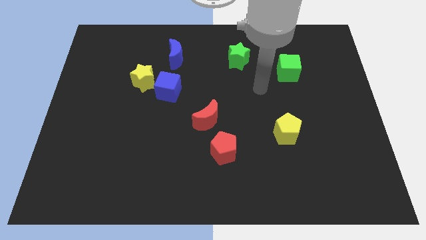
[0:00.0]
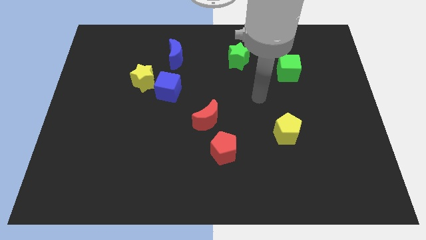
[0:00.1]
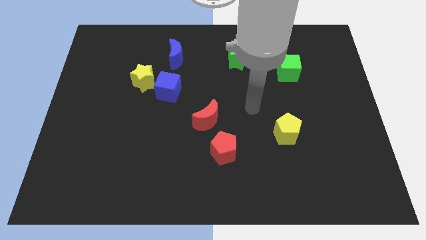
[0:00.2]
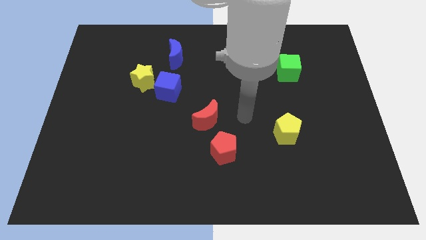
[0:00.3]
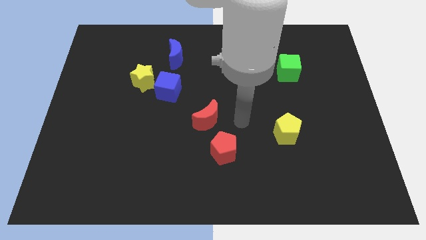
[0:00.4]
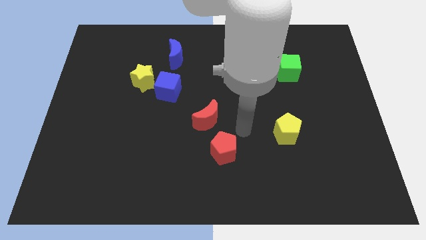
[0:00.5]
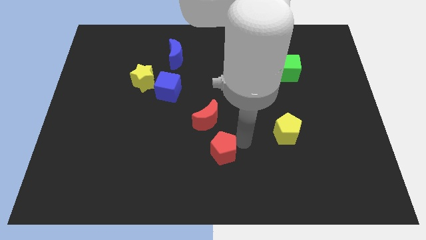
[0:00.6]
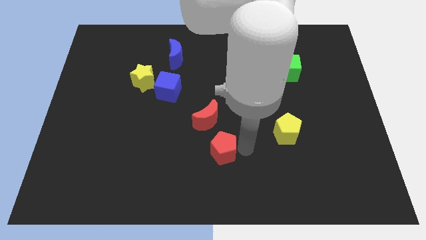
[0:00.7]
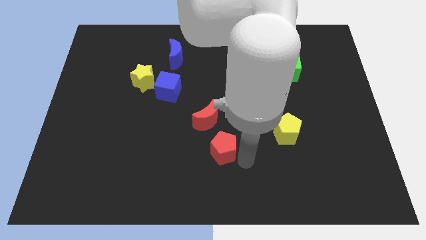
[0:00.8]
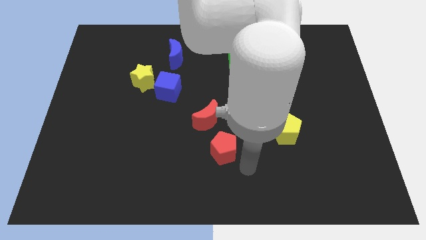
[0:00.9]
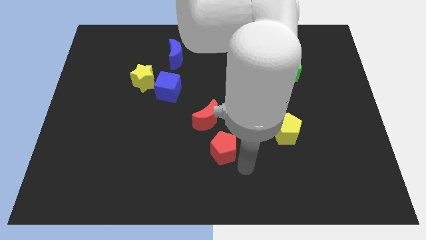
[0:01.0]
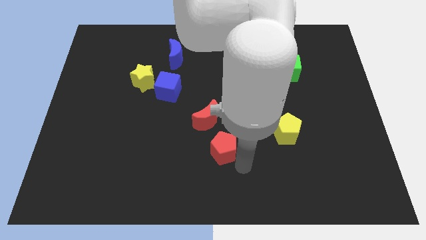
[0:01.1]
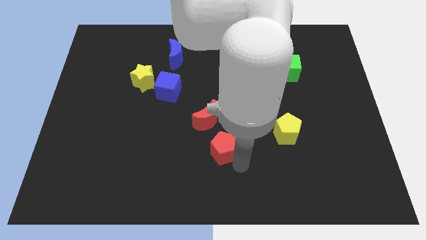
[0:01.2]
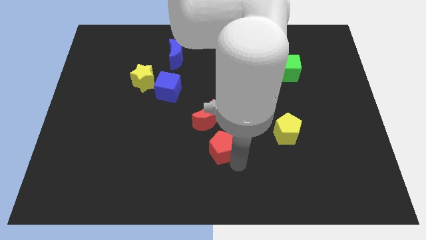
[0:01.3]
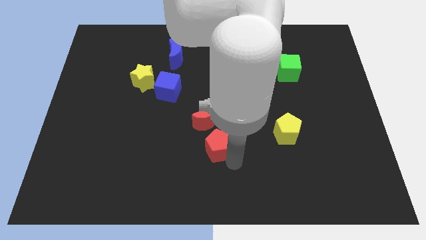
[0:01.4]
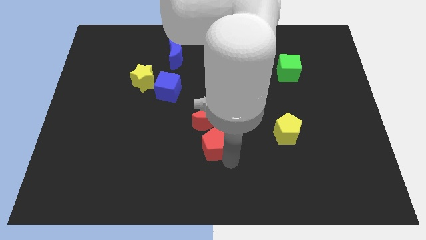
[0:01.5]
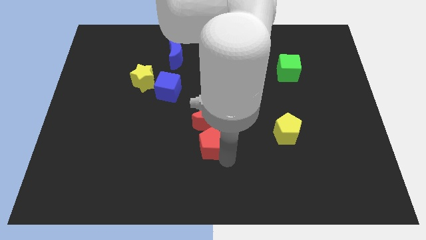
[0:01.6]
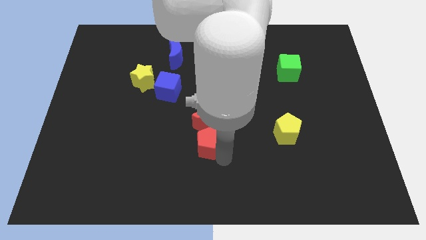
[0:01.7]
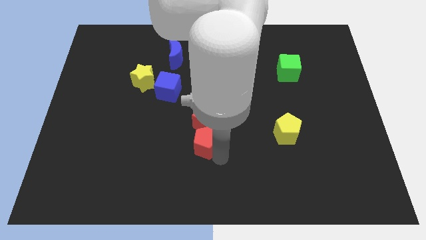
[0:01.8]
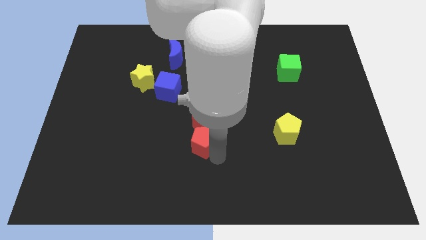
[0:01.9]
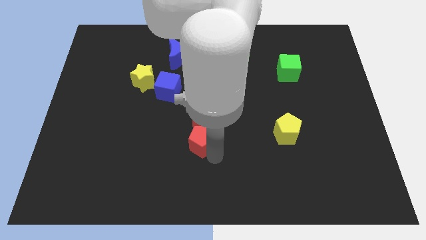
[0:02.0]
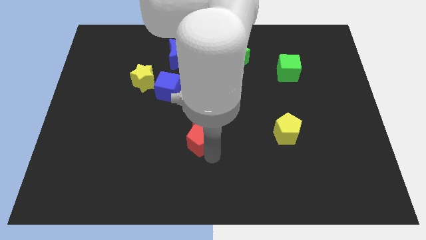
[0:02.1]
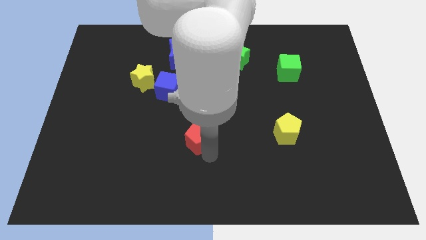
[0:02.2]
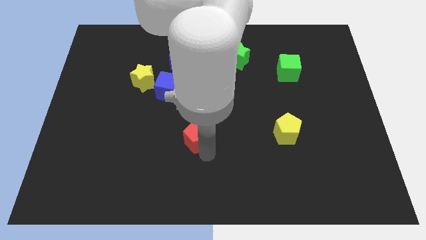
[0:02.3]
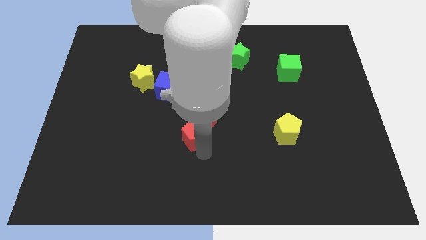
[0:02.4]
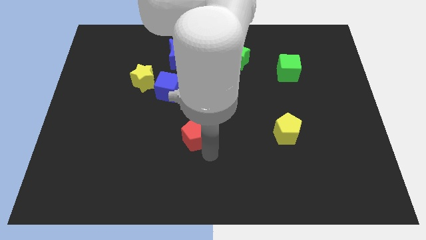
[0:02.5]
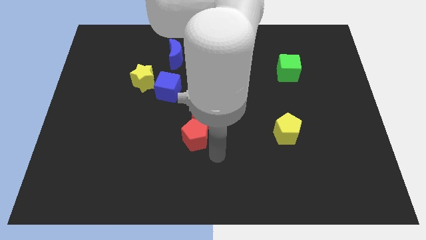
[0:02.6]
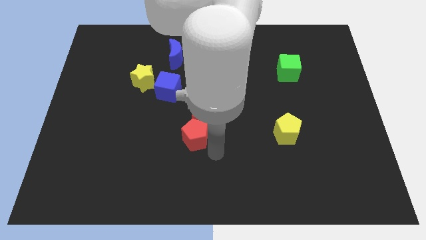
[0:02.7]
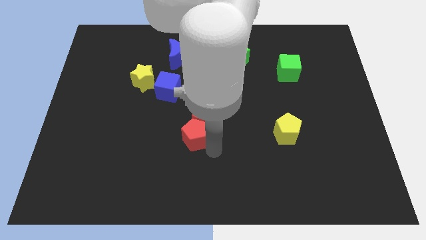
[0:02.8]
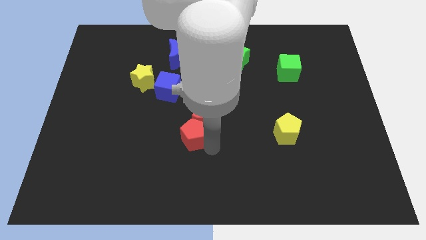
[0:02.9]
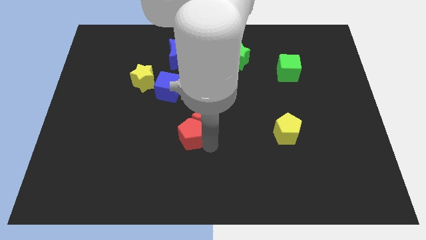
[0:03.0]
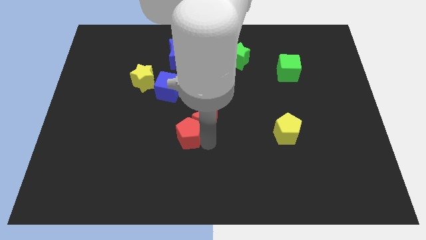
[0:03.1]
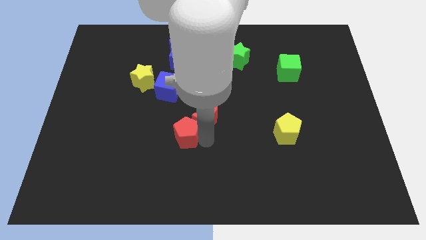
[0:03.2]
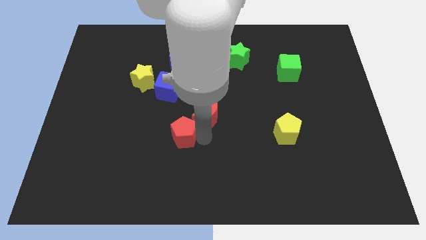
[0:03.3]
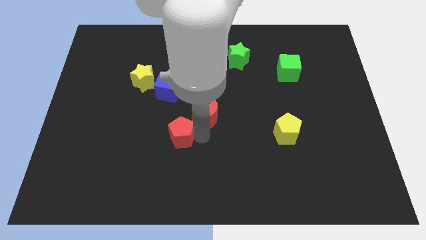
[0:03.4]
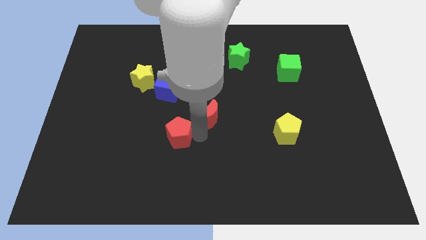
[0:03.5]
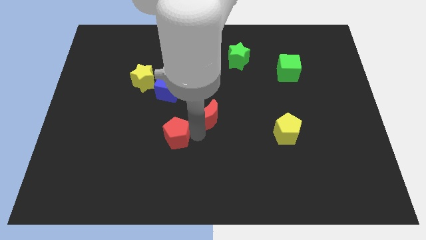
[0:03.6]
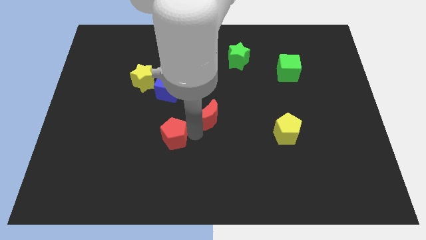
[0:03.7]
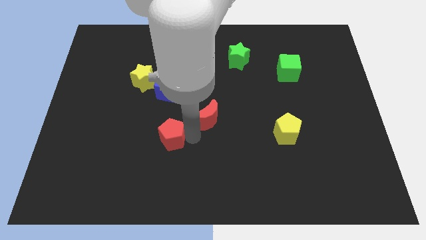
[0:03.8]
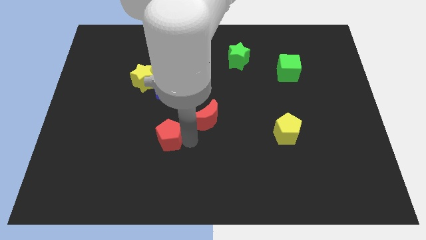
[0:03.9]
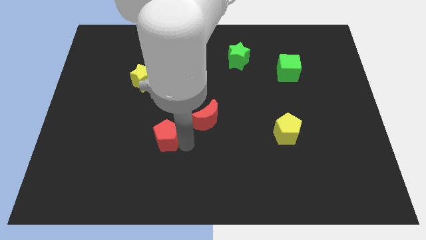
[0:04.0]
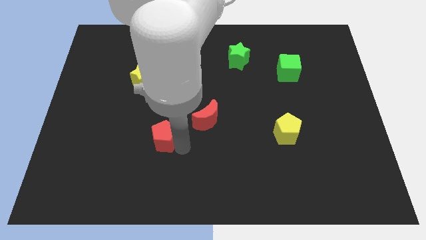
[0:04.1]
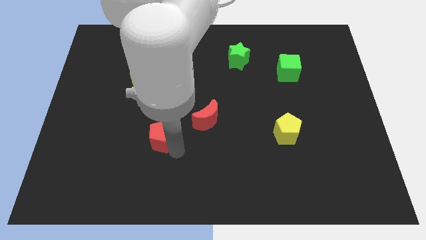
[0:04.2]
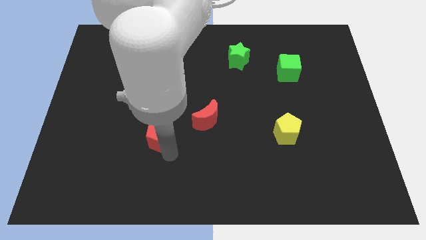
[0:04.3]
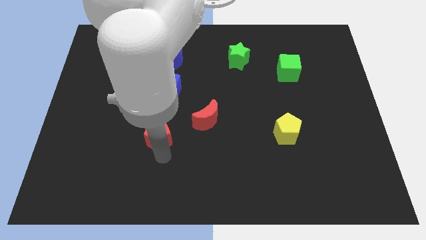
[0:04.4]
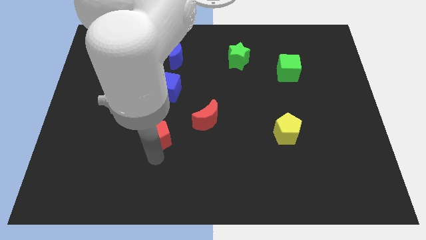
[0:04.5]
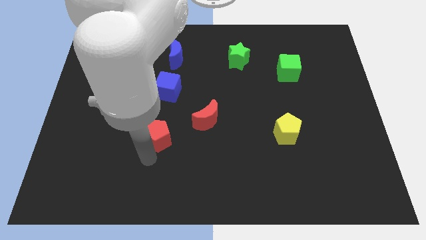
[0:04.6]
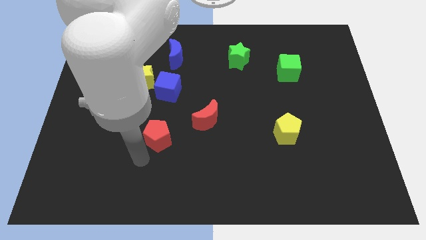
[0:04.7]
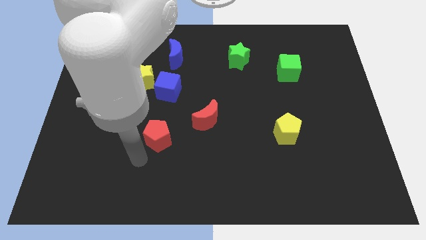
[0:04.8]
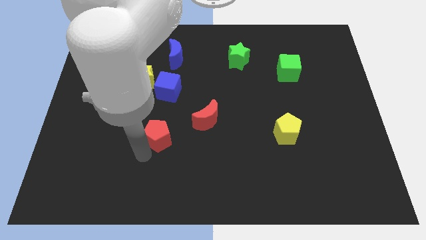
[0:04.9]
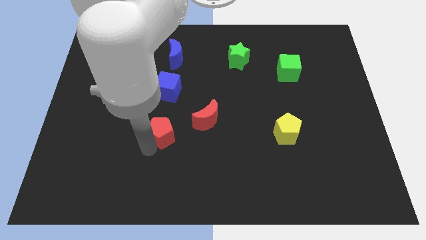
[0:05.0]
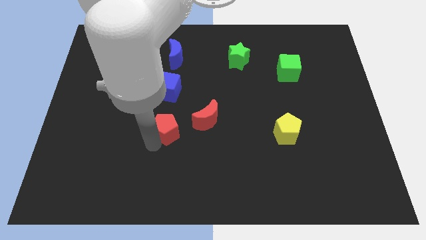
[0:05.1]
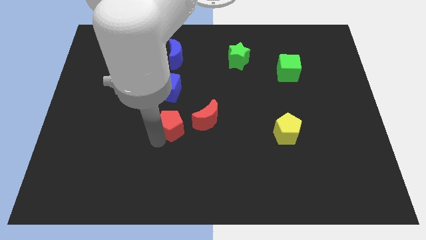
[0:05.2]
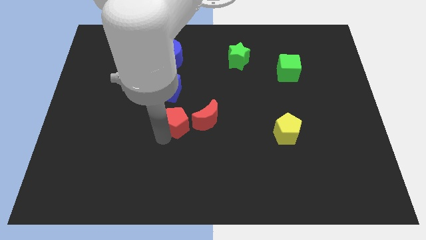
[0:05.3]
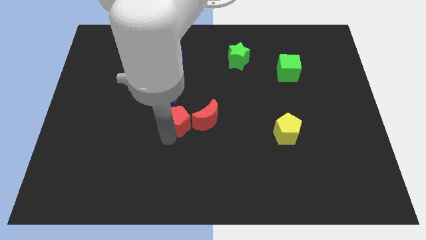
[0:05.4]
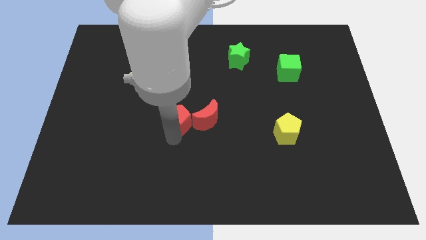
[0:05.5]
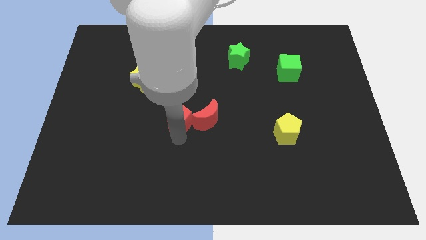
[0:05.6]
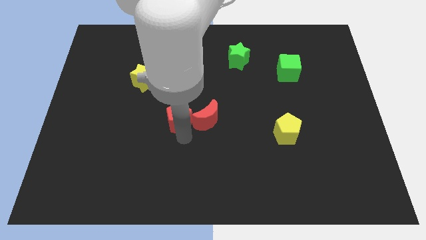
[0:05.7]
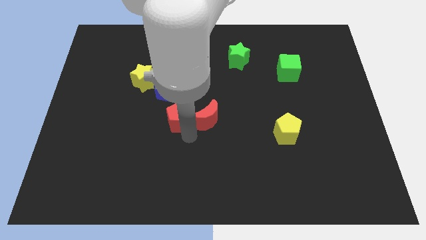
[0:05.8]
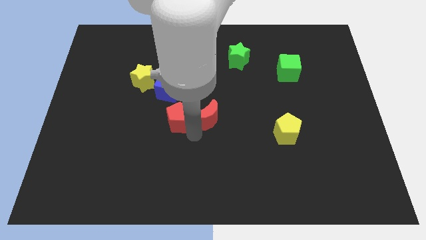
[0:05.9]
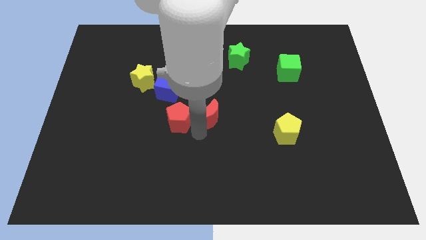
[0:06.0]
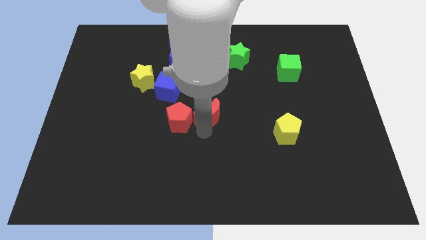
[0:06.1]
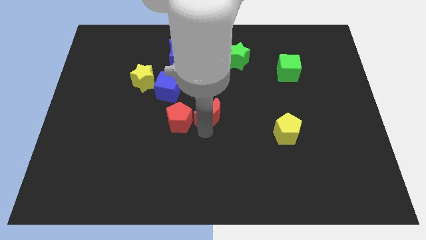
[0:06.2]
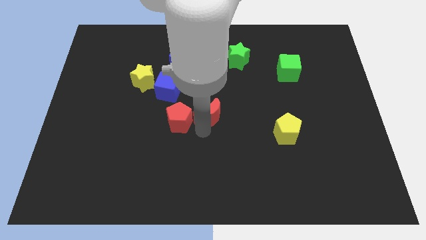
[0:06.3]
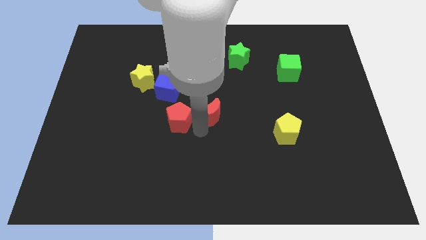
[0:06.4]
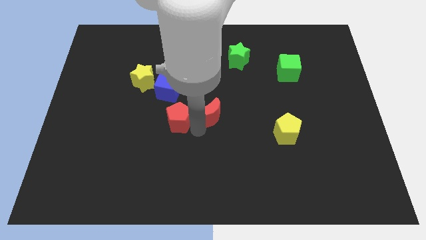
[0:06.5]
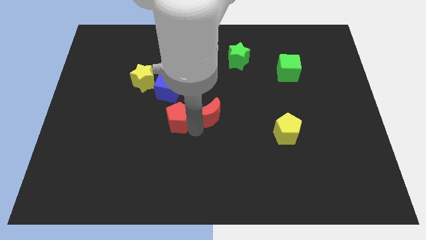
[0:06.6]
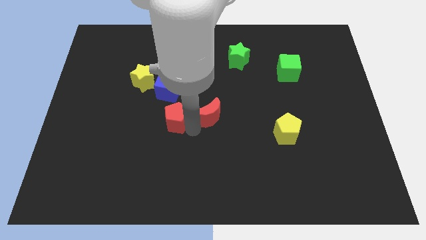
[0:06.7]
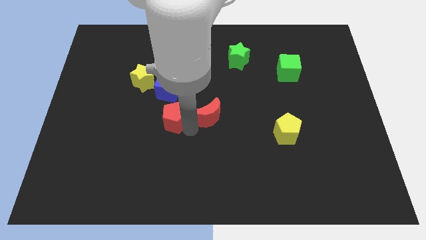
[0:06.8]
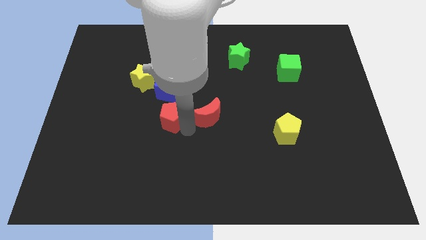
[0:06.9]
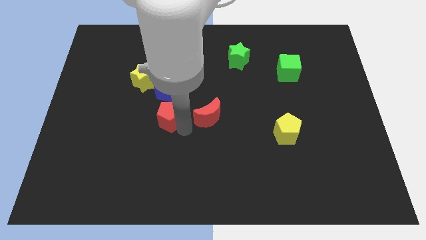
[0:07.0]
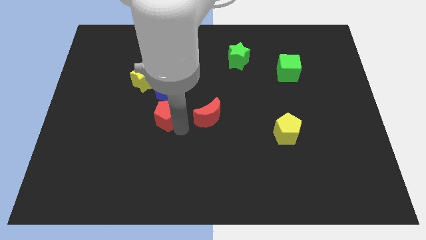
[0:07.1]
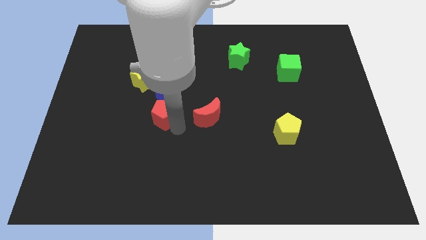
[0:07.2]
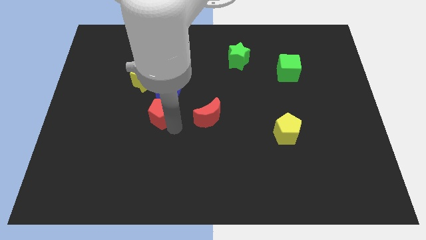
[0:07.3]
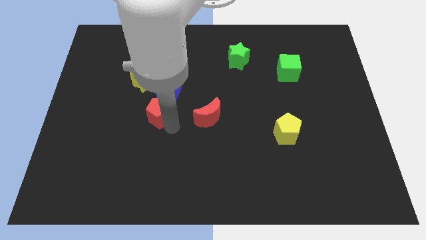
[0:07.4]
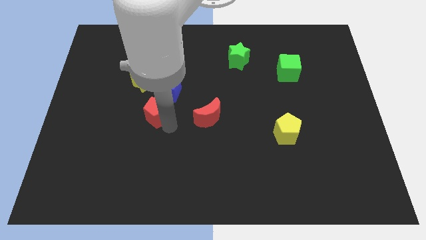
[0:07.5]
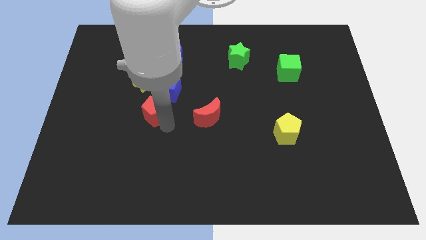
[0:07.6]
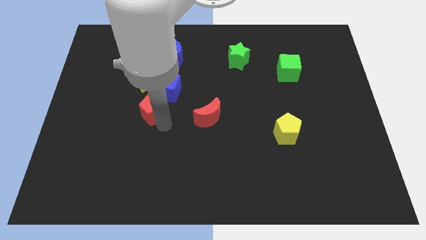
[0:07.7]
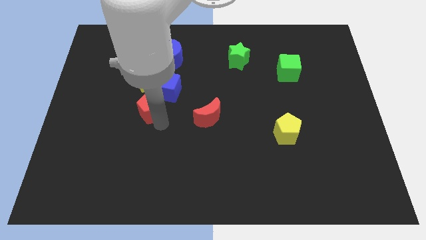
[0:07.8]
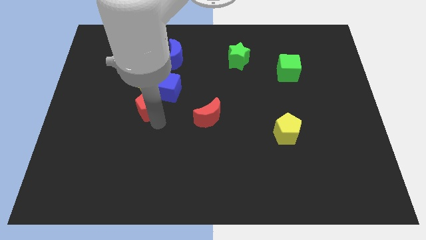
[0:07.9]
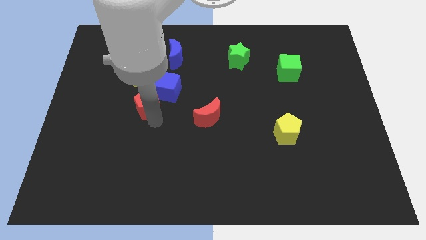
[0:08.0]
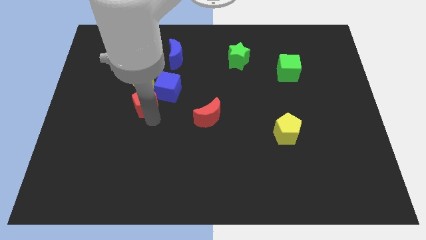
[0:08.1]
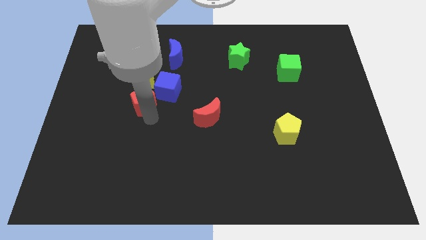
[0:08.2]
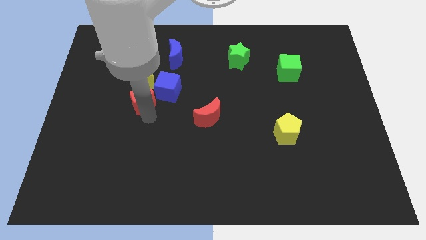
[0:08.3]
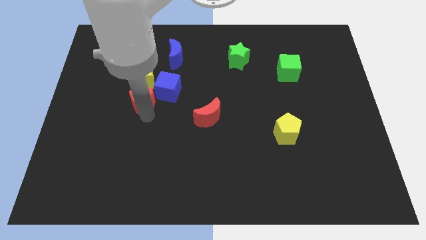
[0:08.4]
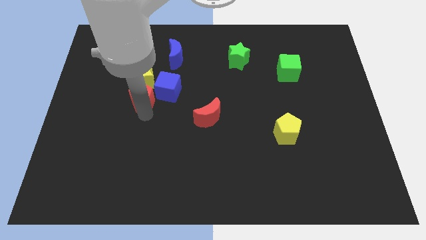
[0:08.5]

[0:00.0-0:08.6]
slide the red pentagon towards the yellow star
